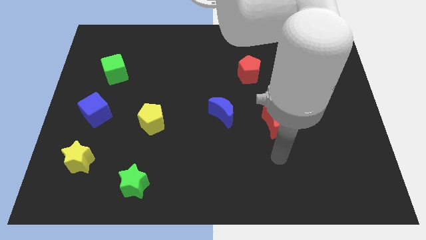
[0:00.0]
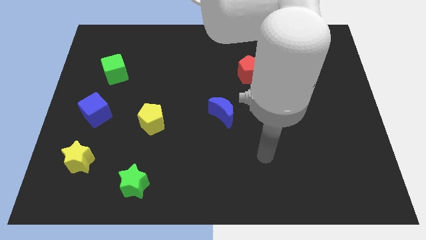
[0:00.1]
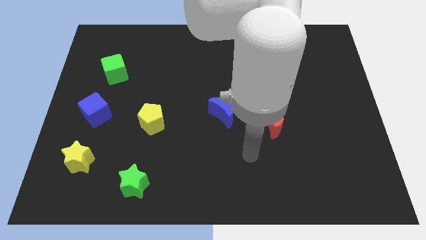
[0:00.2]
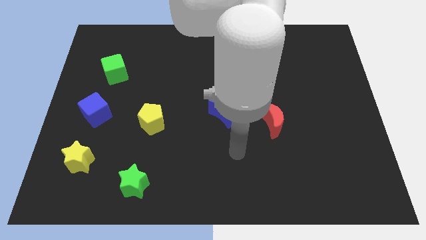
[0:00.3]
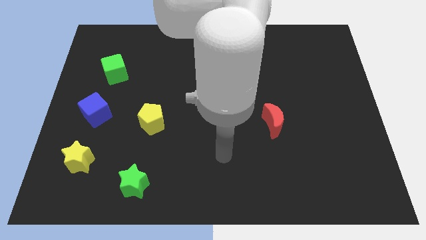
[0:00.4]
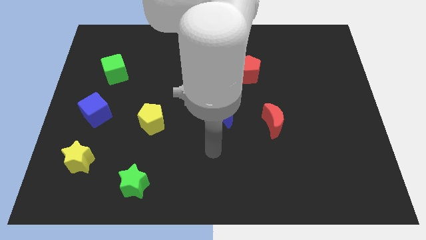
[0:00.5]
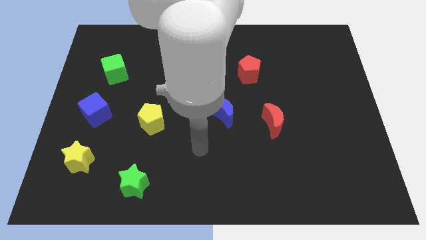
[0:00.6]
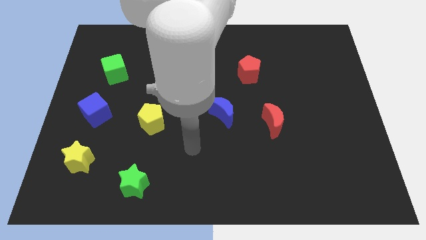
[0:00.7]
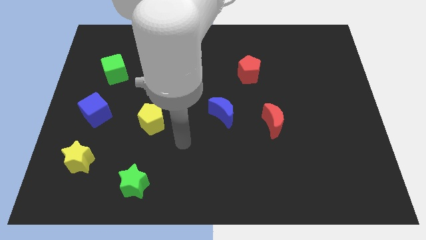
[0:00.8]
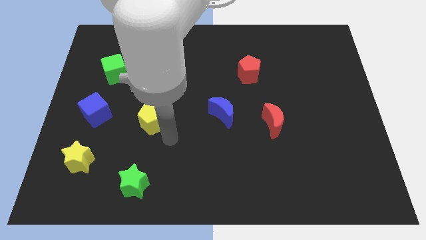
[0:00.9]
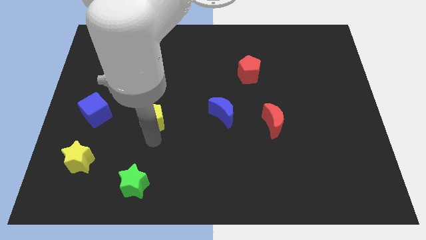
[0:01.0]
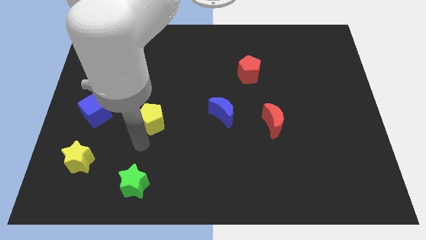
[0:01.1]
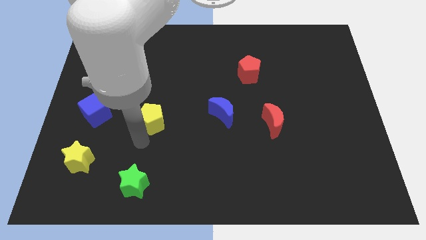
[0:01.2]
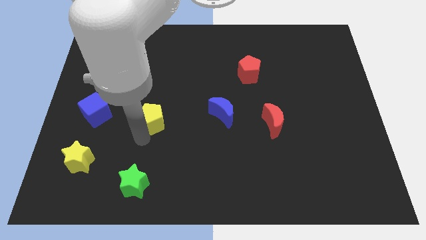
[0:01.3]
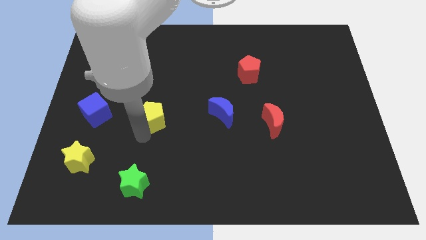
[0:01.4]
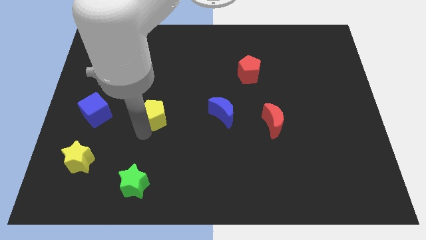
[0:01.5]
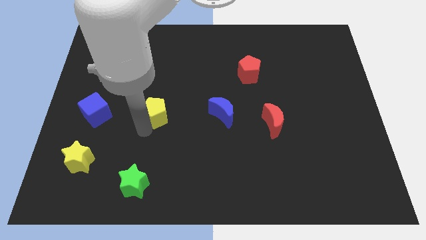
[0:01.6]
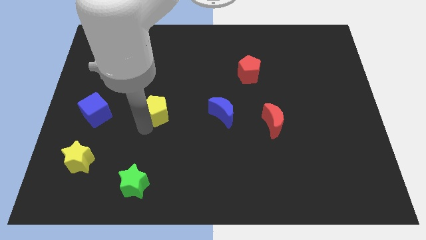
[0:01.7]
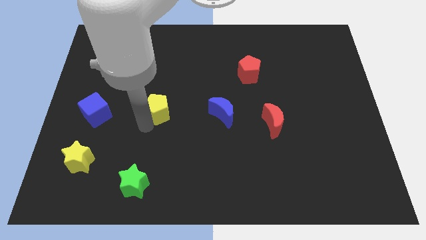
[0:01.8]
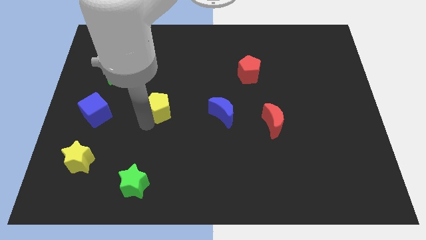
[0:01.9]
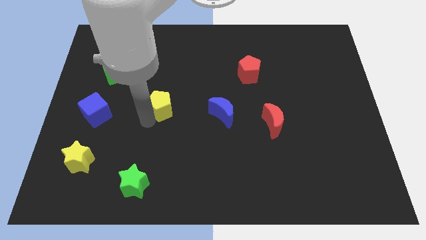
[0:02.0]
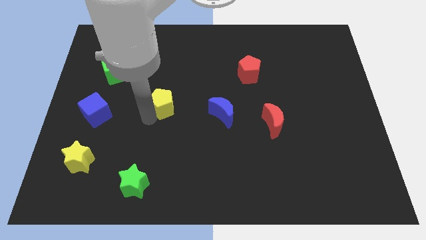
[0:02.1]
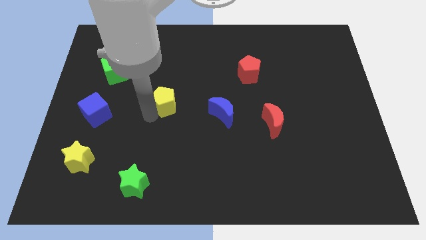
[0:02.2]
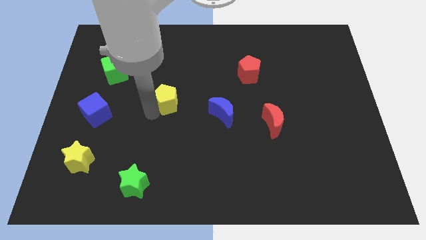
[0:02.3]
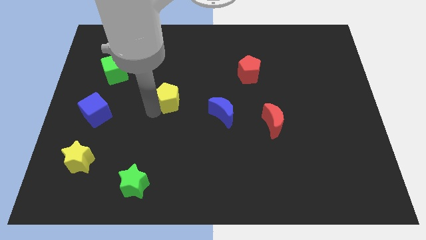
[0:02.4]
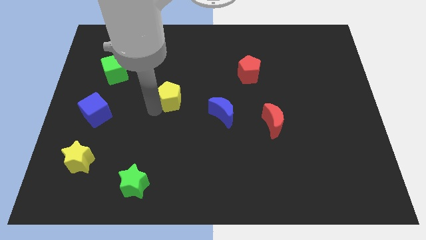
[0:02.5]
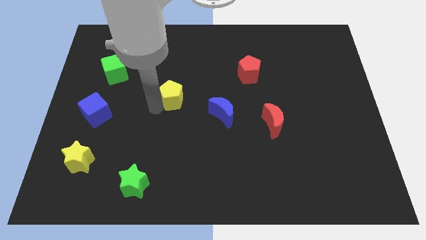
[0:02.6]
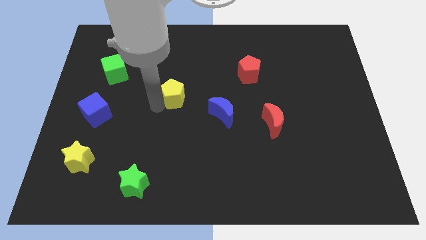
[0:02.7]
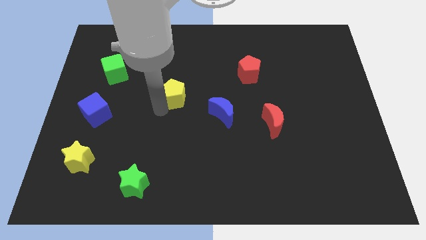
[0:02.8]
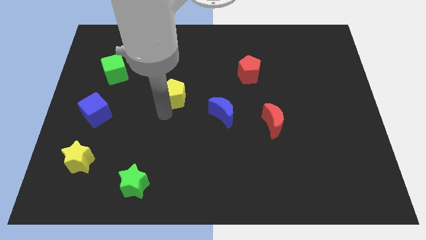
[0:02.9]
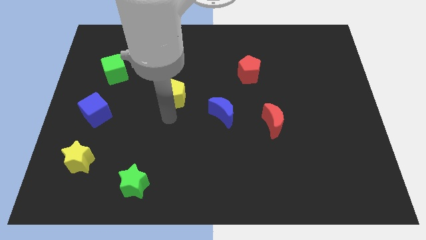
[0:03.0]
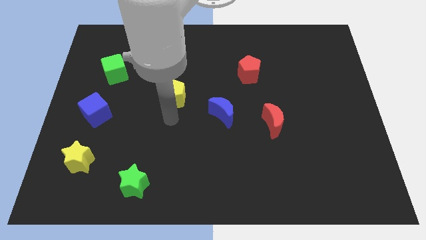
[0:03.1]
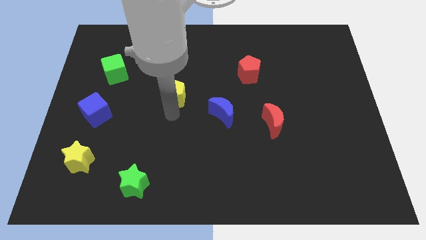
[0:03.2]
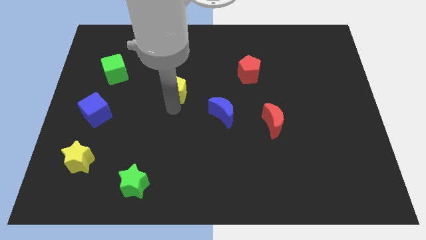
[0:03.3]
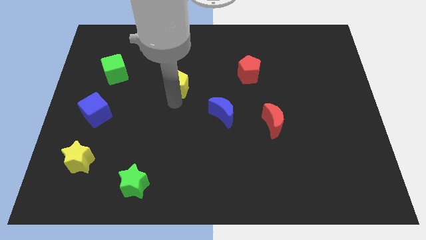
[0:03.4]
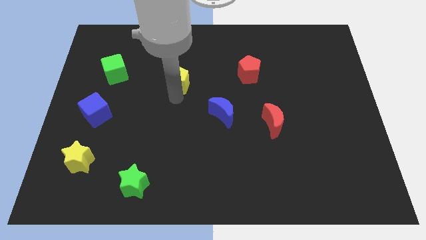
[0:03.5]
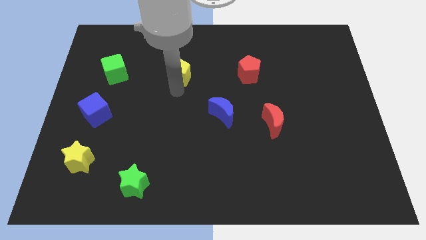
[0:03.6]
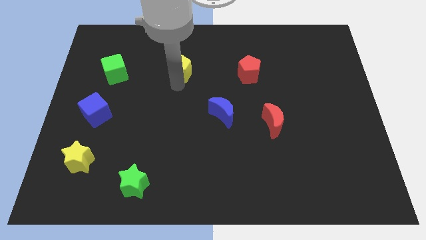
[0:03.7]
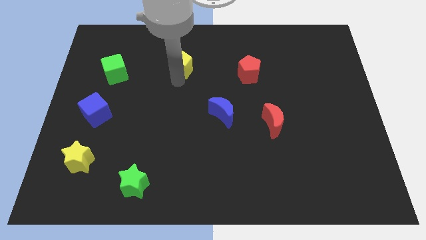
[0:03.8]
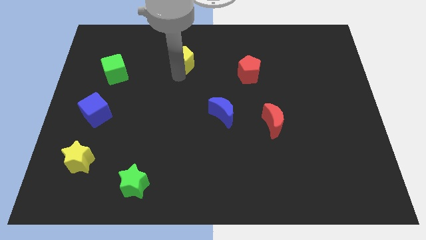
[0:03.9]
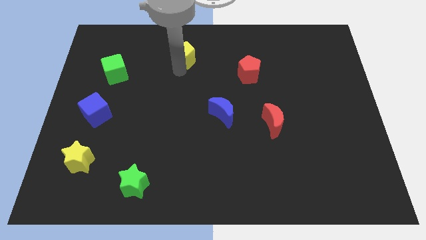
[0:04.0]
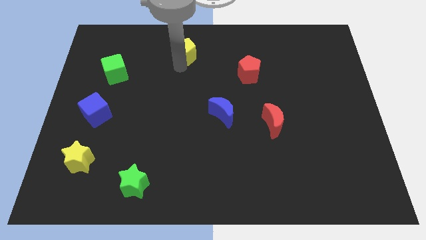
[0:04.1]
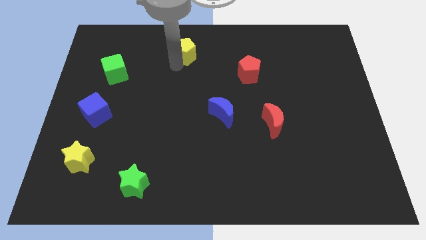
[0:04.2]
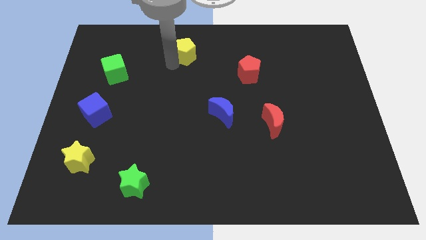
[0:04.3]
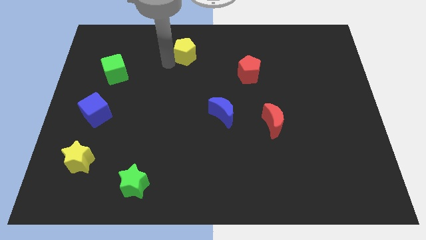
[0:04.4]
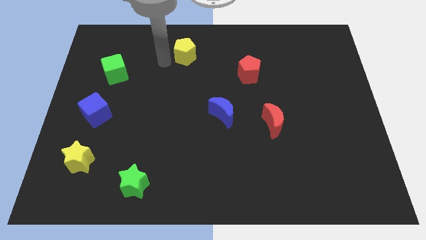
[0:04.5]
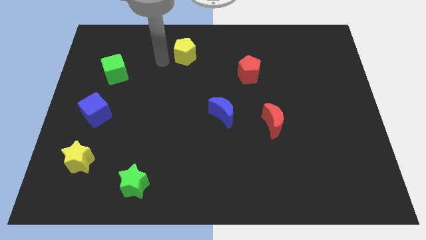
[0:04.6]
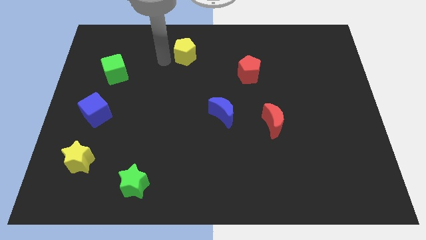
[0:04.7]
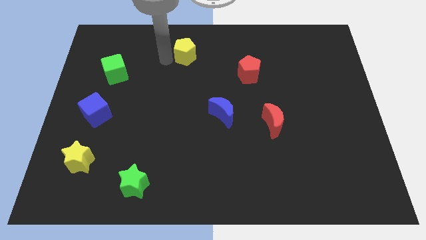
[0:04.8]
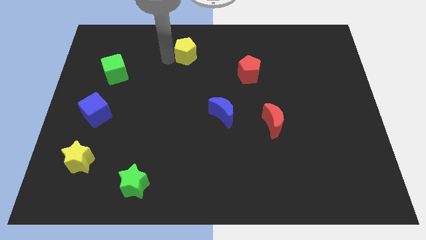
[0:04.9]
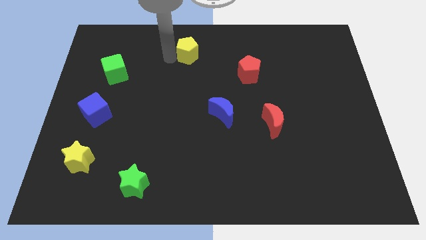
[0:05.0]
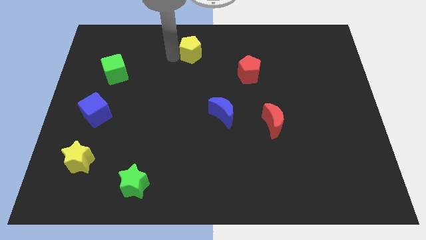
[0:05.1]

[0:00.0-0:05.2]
slide the yellow pentagon to the top side

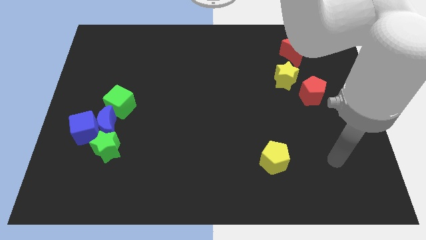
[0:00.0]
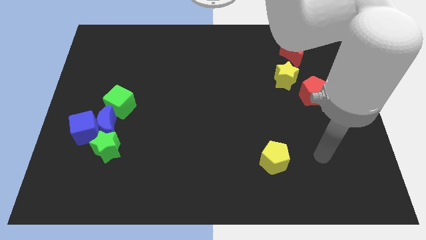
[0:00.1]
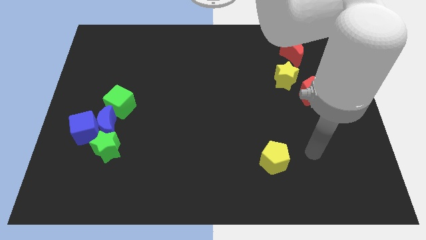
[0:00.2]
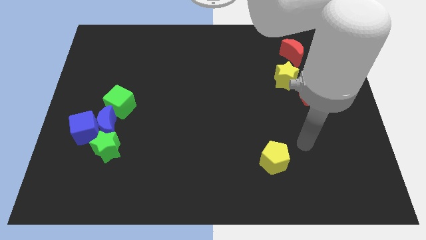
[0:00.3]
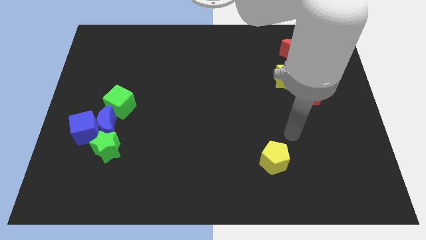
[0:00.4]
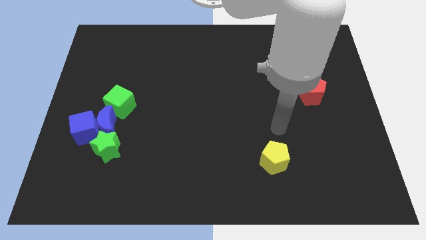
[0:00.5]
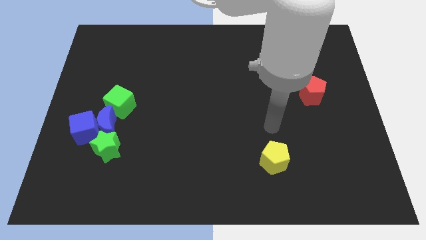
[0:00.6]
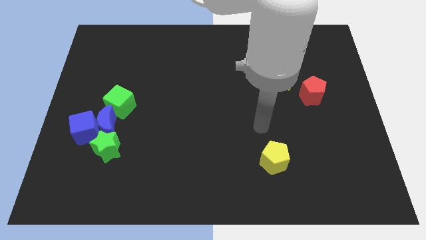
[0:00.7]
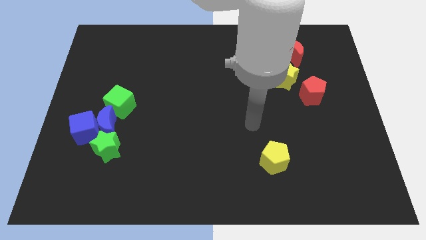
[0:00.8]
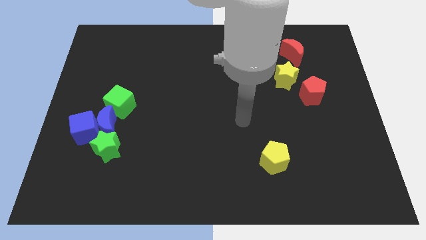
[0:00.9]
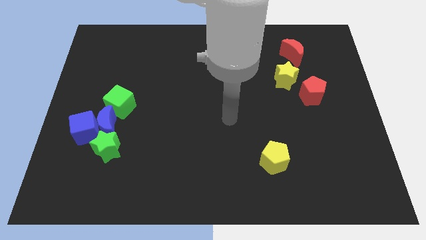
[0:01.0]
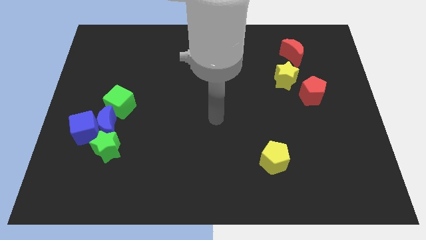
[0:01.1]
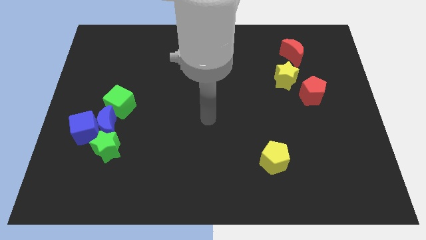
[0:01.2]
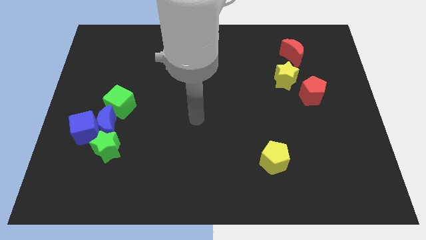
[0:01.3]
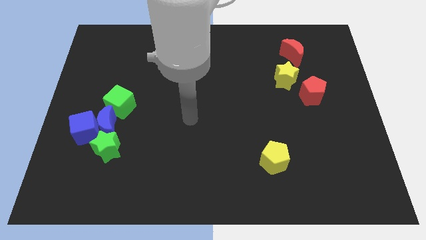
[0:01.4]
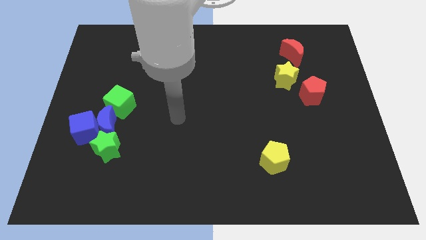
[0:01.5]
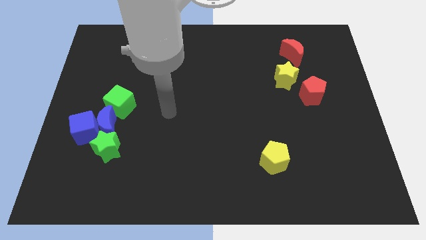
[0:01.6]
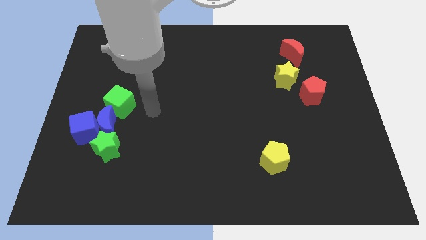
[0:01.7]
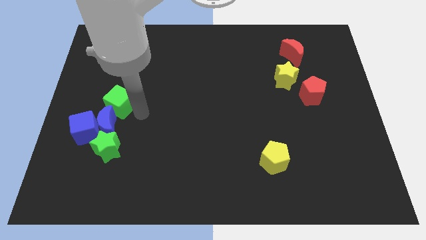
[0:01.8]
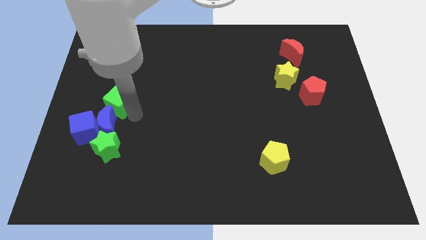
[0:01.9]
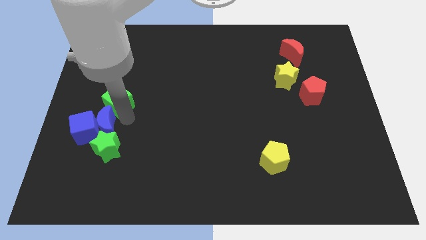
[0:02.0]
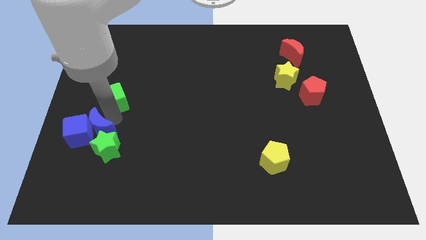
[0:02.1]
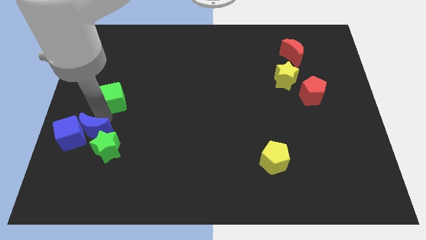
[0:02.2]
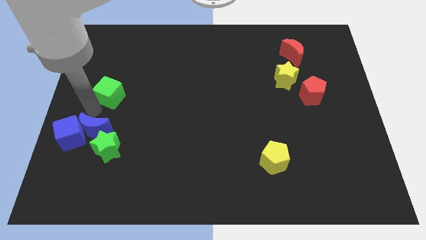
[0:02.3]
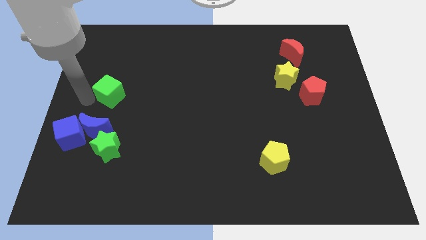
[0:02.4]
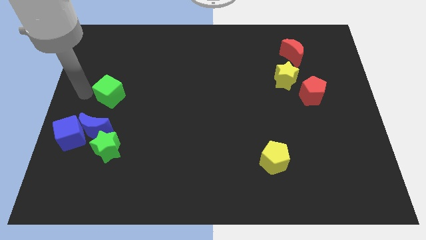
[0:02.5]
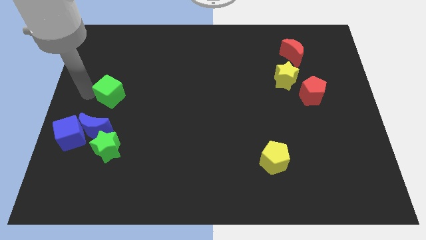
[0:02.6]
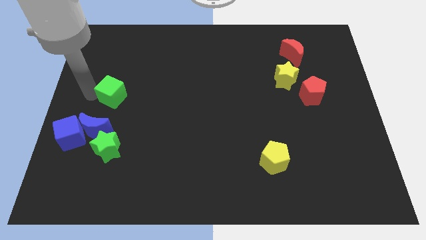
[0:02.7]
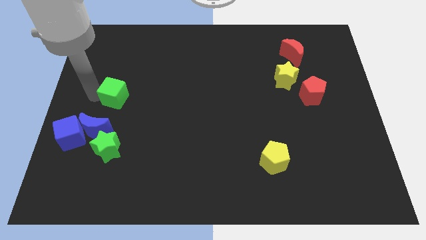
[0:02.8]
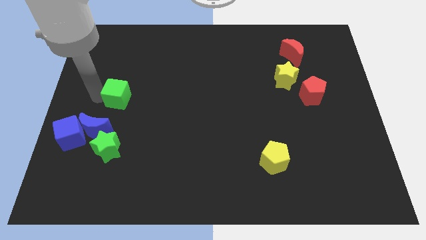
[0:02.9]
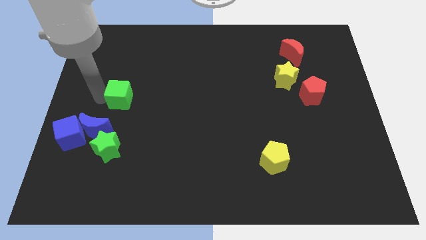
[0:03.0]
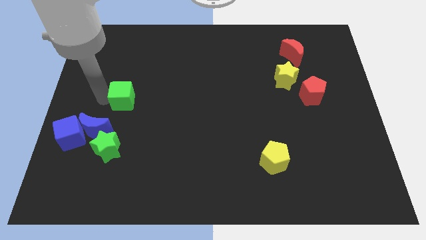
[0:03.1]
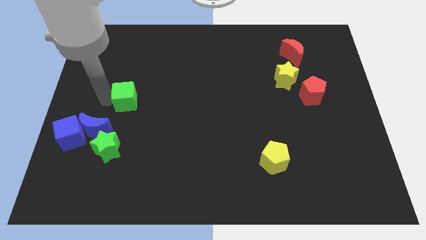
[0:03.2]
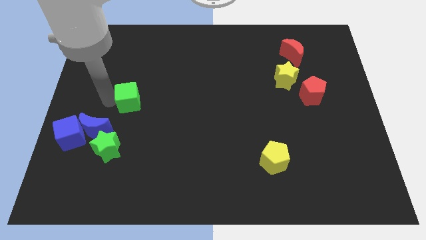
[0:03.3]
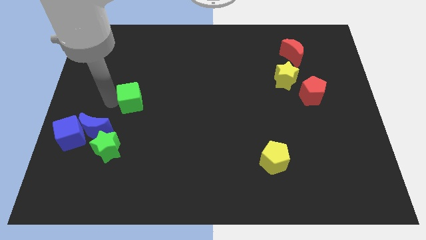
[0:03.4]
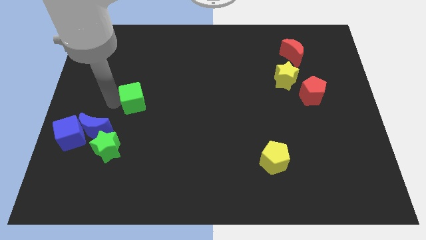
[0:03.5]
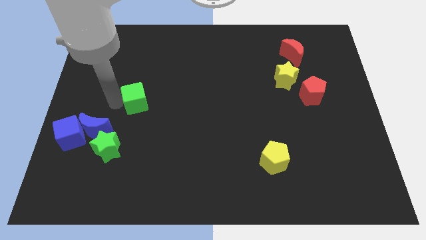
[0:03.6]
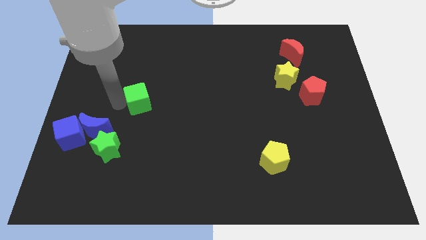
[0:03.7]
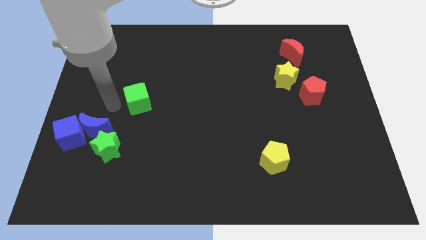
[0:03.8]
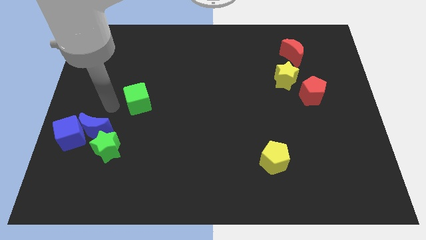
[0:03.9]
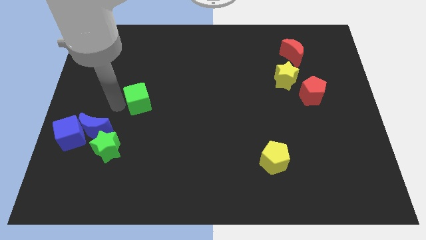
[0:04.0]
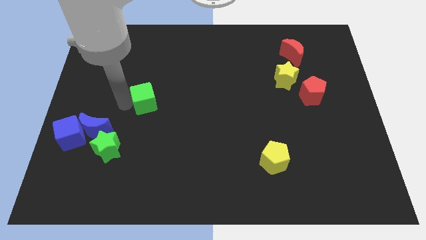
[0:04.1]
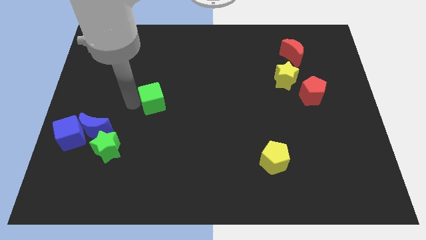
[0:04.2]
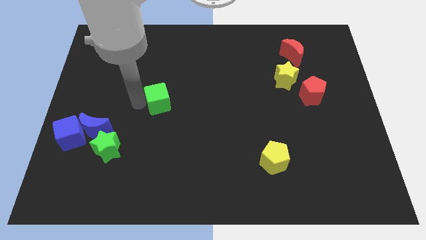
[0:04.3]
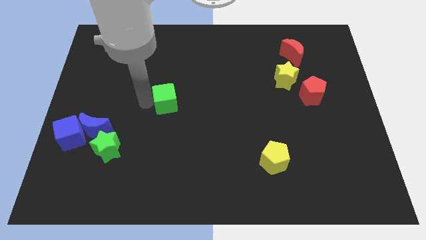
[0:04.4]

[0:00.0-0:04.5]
move the green cube to the middle
